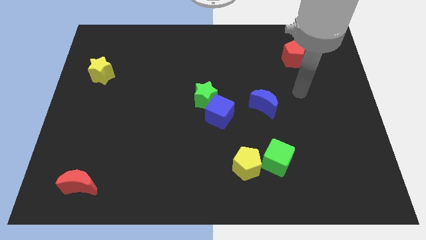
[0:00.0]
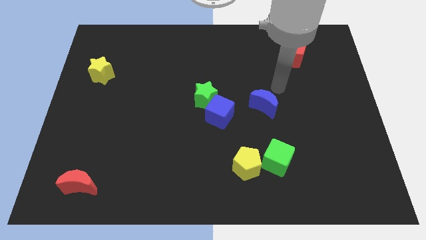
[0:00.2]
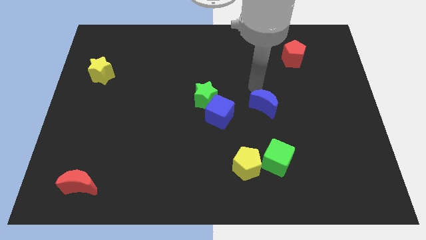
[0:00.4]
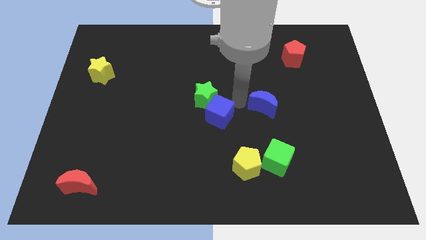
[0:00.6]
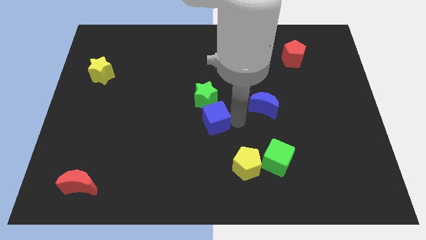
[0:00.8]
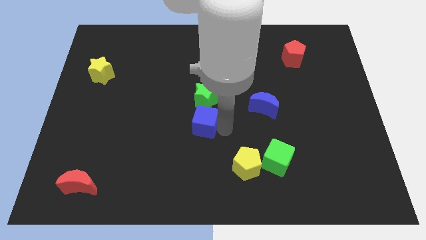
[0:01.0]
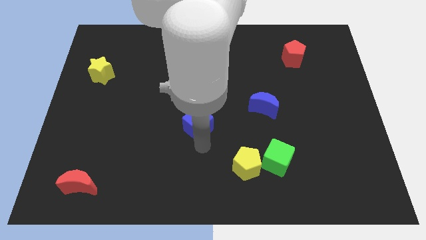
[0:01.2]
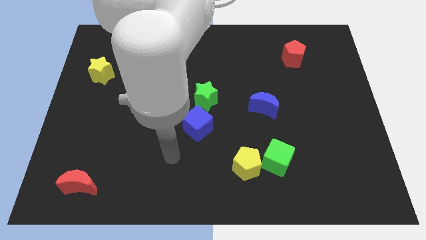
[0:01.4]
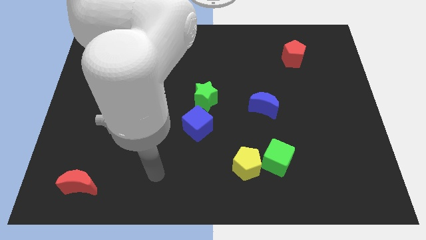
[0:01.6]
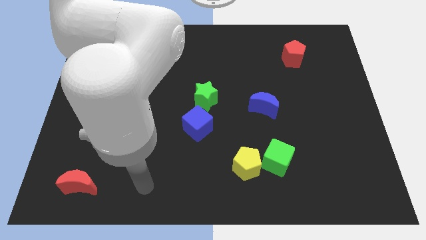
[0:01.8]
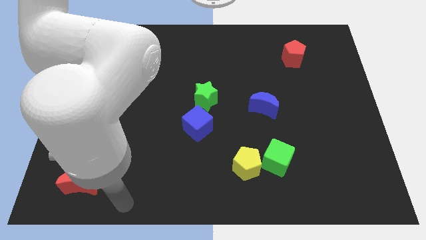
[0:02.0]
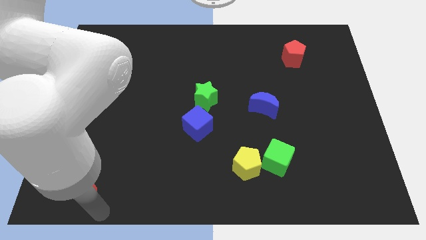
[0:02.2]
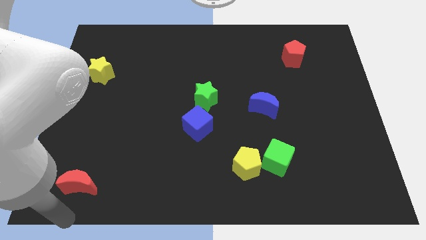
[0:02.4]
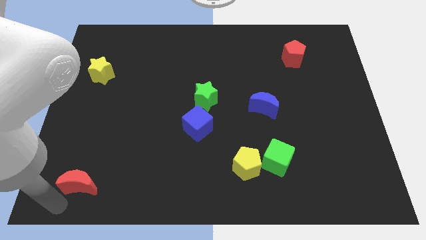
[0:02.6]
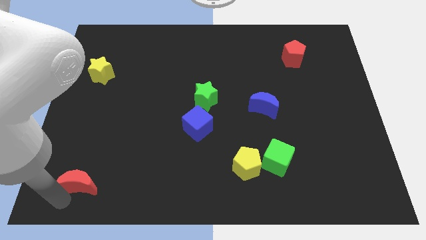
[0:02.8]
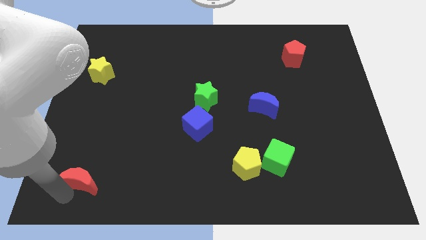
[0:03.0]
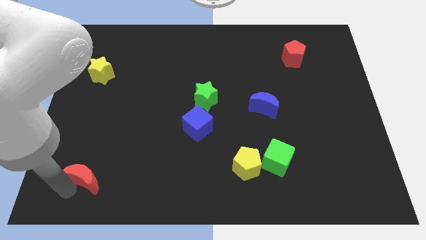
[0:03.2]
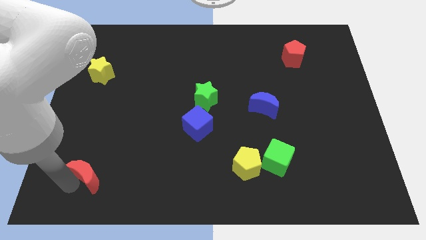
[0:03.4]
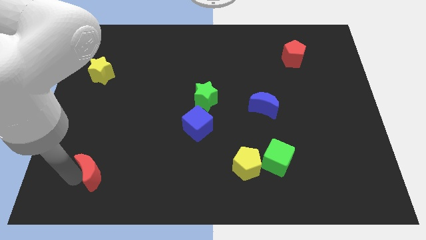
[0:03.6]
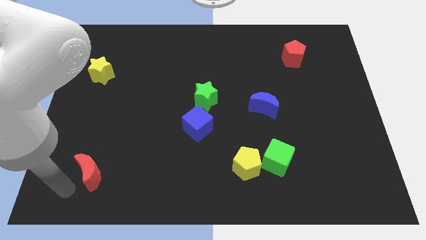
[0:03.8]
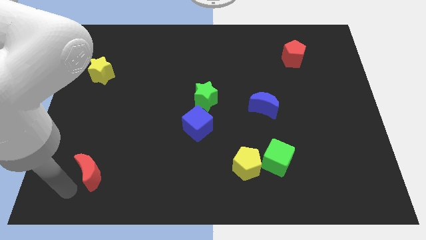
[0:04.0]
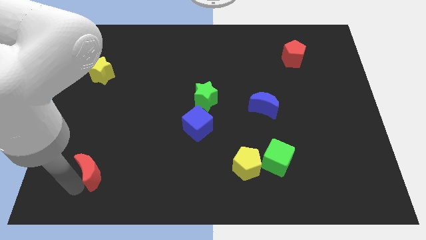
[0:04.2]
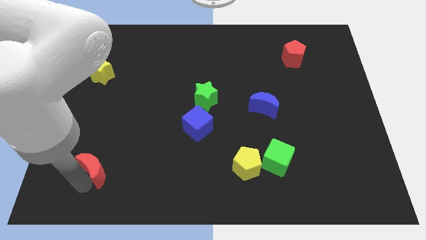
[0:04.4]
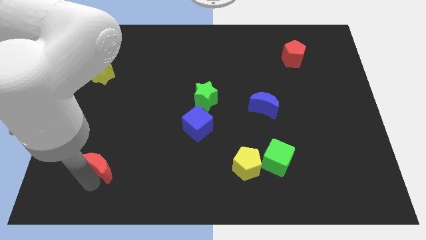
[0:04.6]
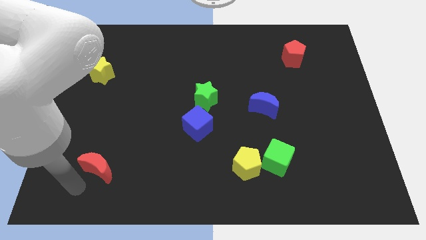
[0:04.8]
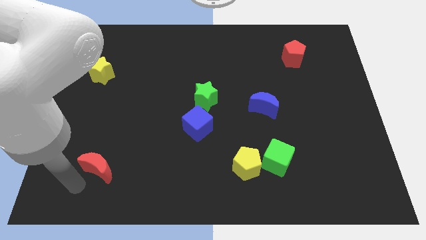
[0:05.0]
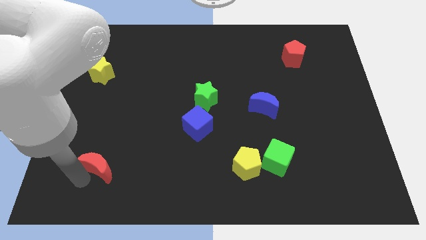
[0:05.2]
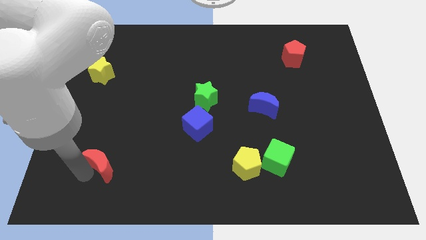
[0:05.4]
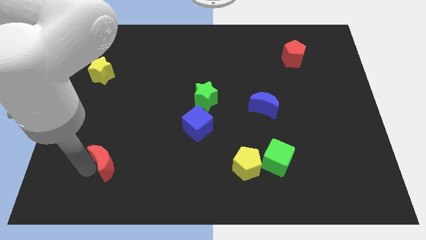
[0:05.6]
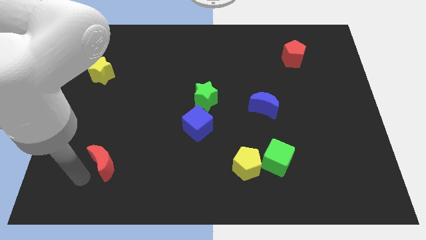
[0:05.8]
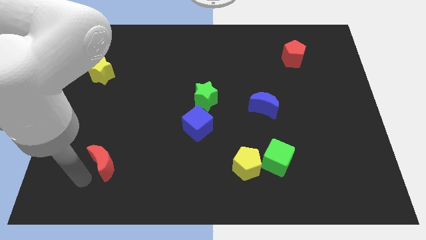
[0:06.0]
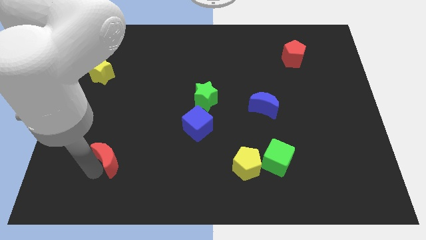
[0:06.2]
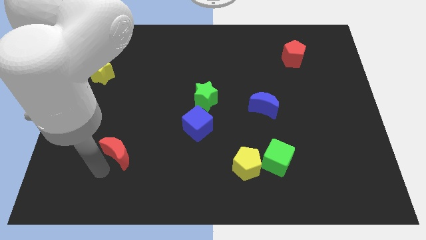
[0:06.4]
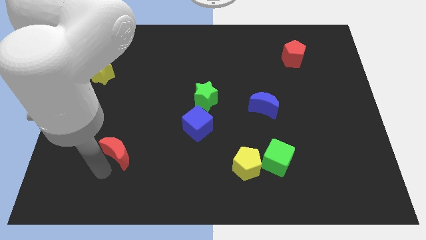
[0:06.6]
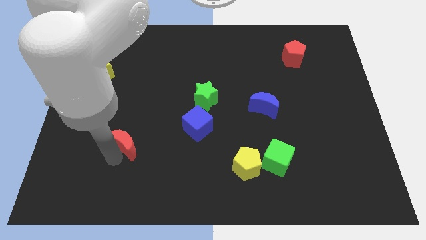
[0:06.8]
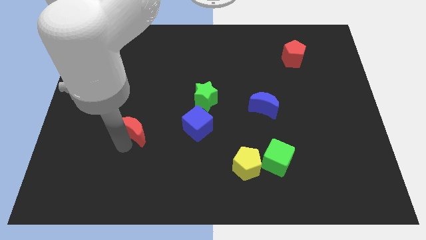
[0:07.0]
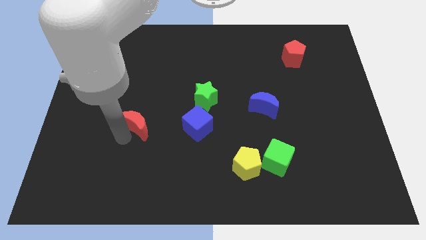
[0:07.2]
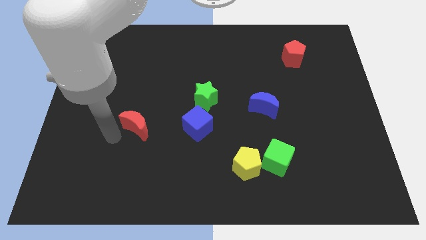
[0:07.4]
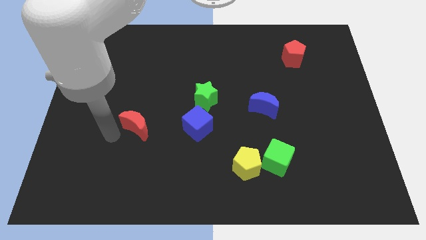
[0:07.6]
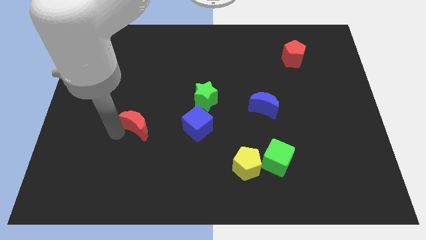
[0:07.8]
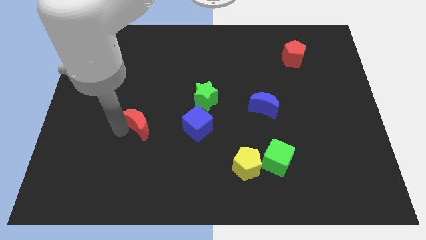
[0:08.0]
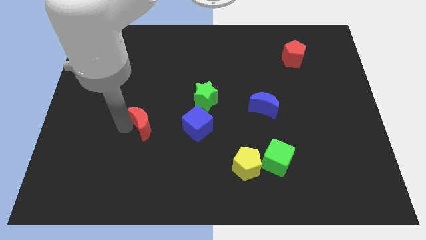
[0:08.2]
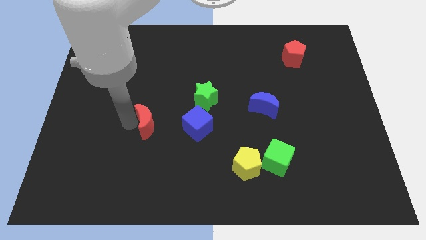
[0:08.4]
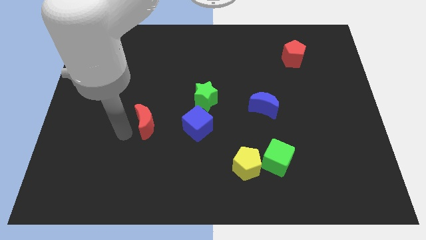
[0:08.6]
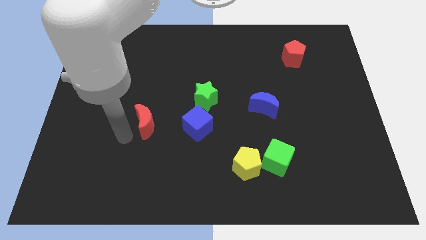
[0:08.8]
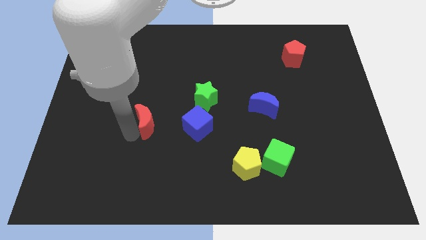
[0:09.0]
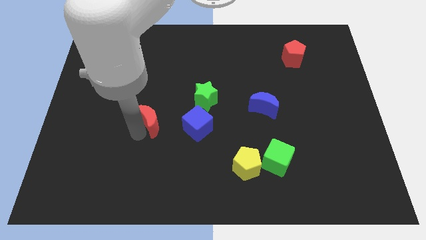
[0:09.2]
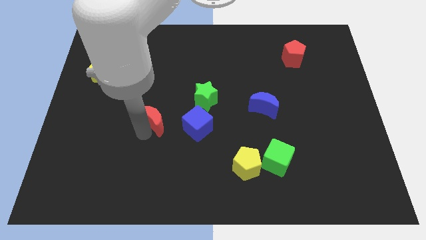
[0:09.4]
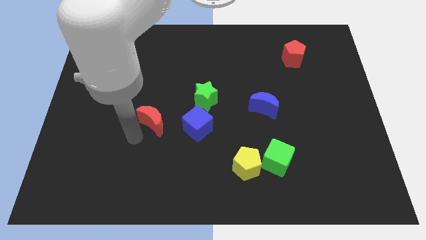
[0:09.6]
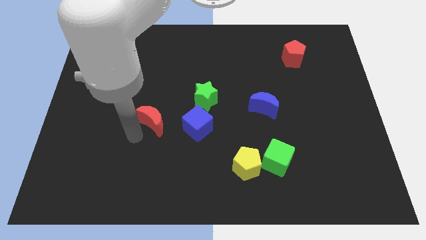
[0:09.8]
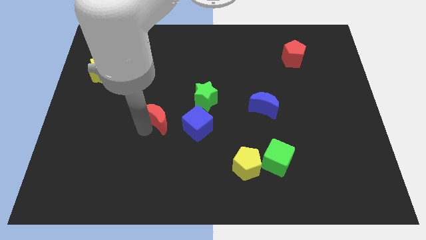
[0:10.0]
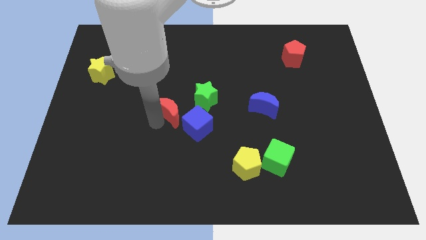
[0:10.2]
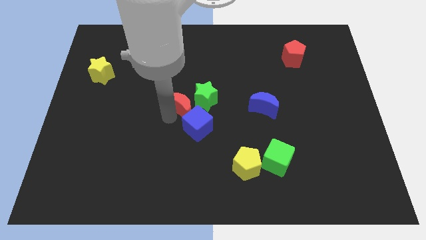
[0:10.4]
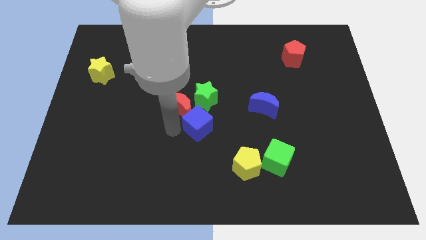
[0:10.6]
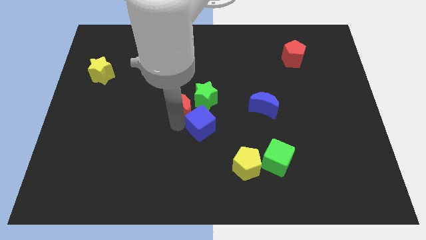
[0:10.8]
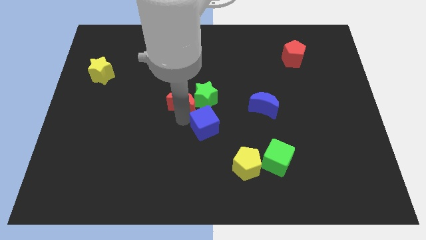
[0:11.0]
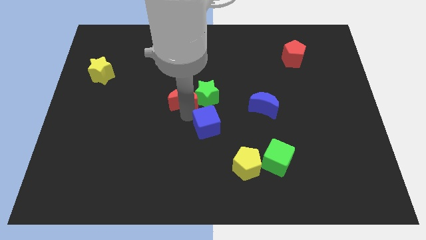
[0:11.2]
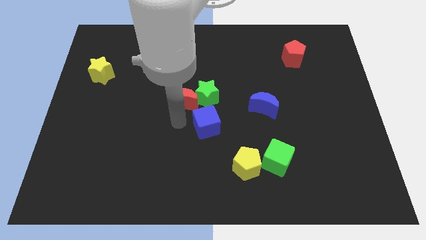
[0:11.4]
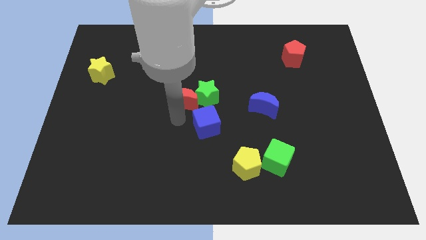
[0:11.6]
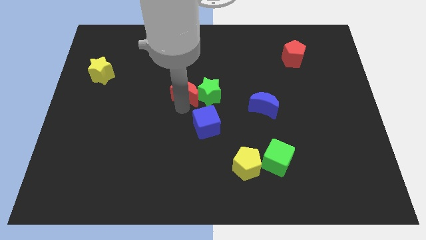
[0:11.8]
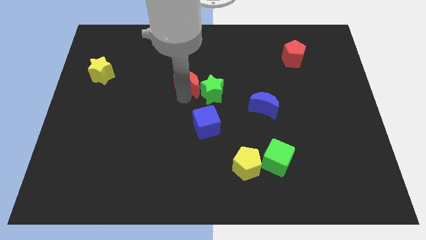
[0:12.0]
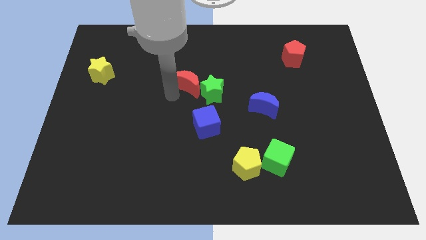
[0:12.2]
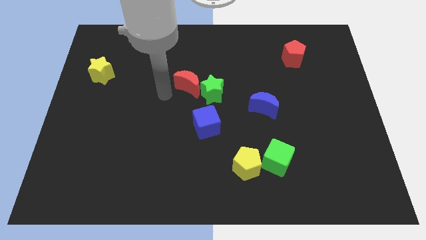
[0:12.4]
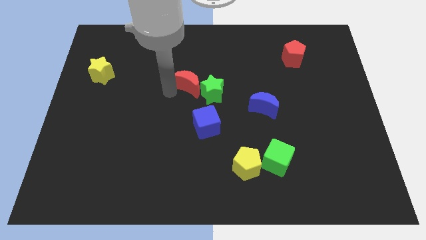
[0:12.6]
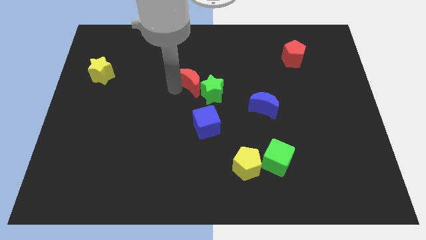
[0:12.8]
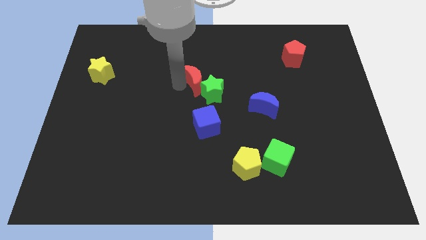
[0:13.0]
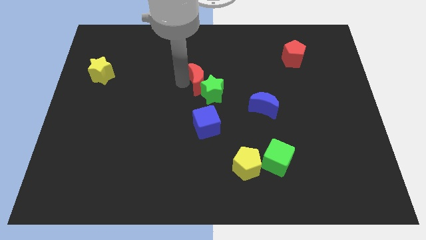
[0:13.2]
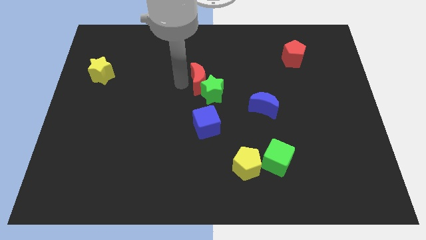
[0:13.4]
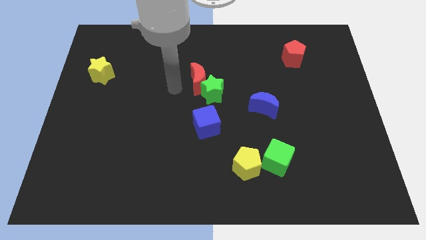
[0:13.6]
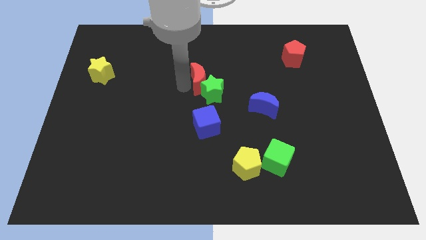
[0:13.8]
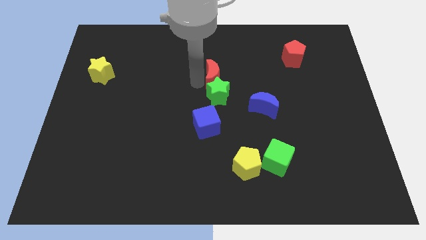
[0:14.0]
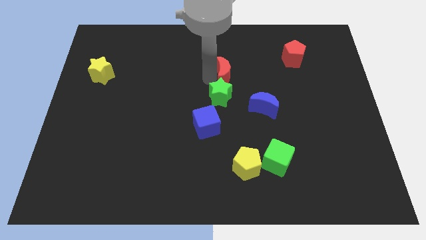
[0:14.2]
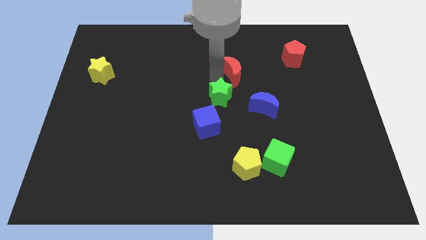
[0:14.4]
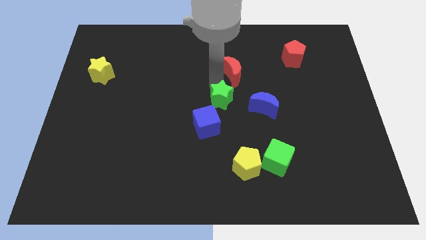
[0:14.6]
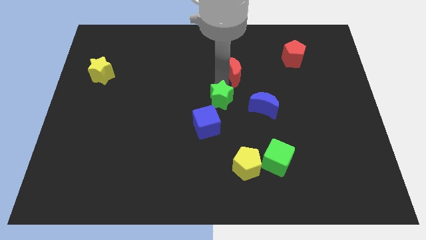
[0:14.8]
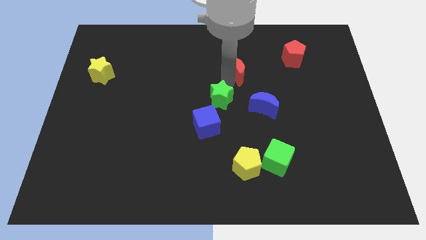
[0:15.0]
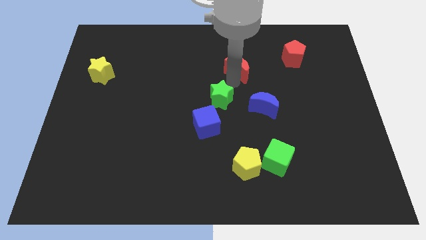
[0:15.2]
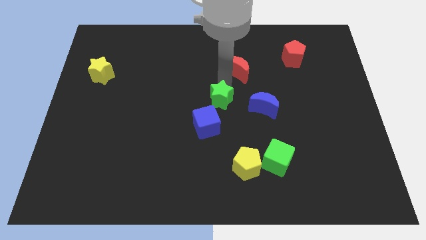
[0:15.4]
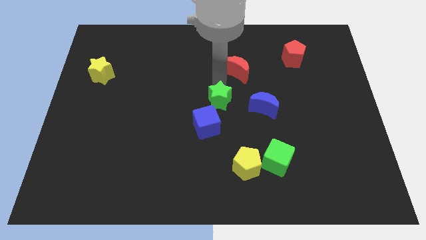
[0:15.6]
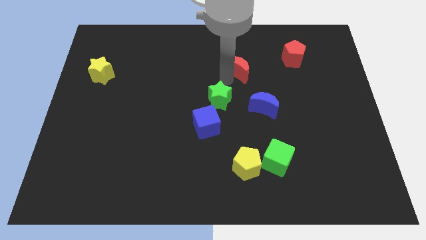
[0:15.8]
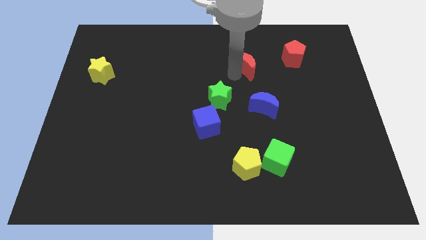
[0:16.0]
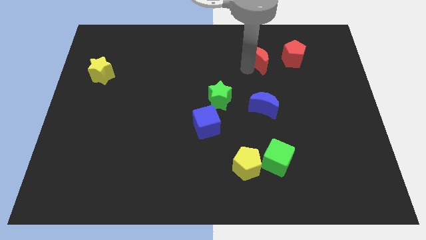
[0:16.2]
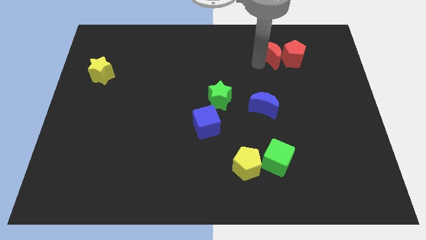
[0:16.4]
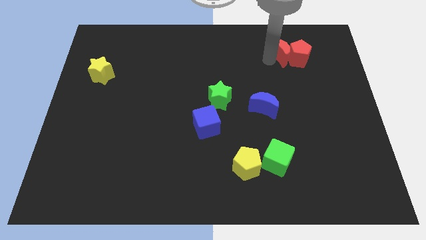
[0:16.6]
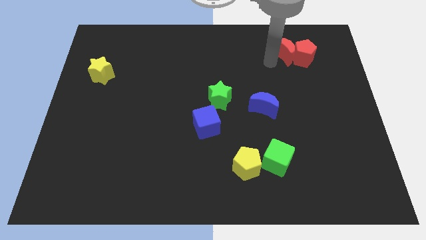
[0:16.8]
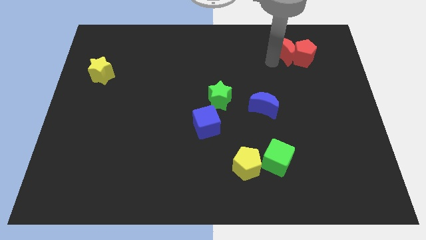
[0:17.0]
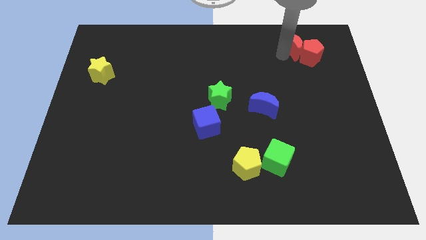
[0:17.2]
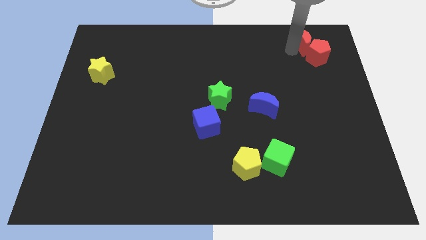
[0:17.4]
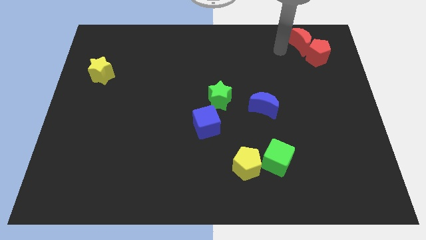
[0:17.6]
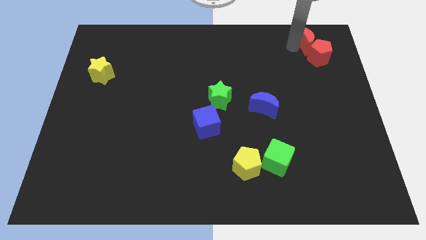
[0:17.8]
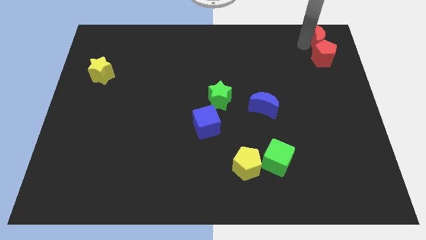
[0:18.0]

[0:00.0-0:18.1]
push the red moon to the top right of the board
